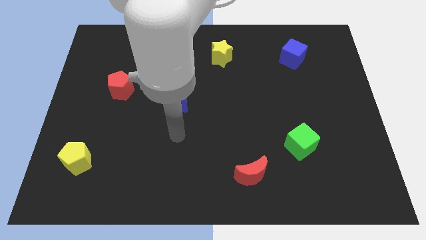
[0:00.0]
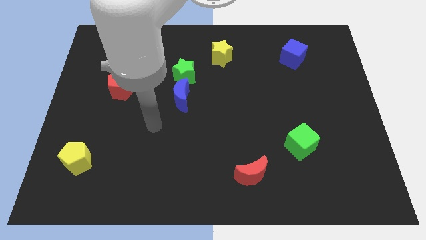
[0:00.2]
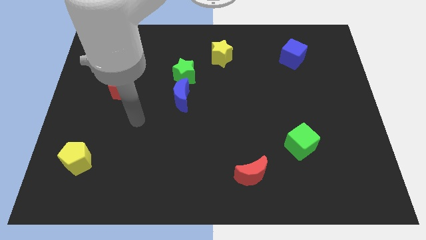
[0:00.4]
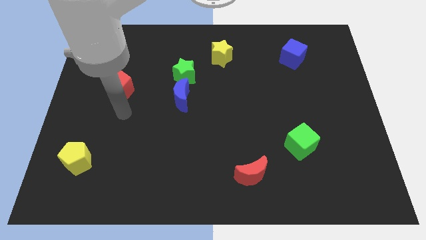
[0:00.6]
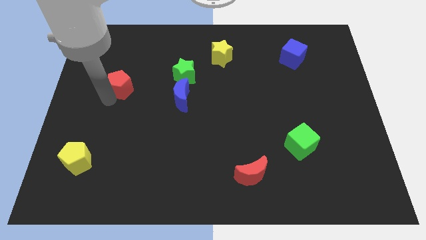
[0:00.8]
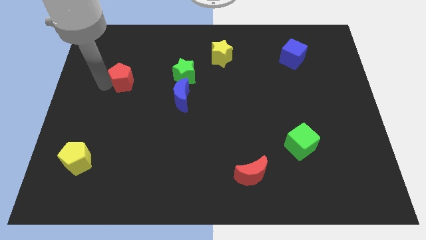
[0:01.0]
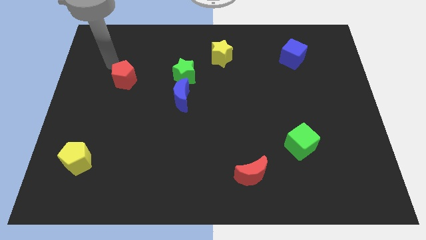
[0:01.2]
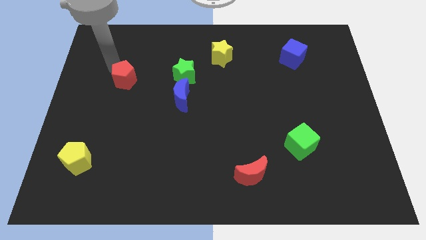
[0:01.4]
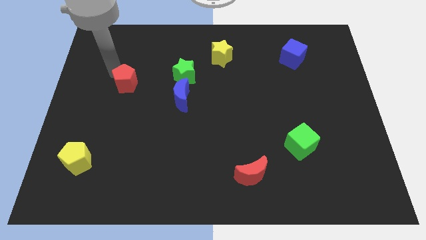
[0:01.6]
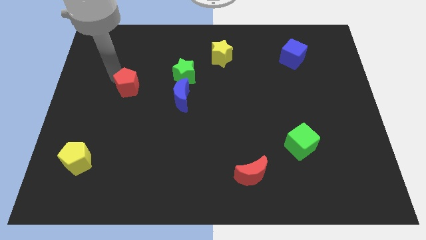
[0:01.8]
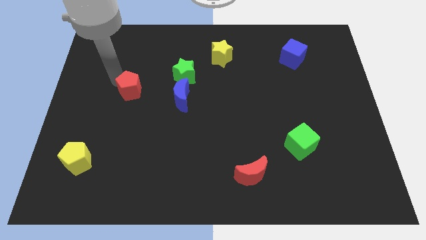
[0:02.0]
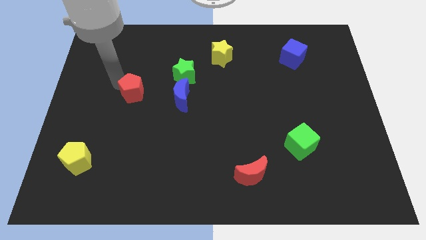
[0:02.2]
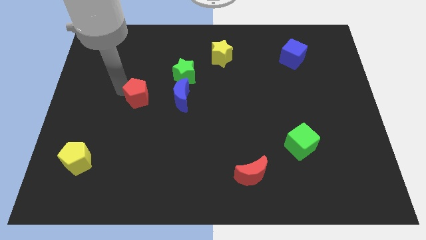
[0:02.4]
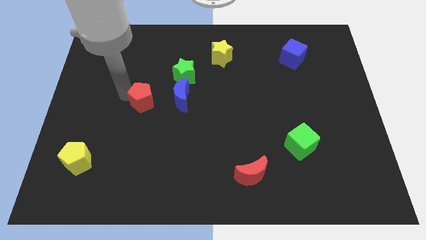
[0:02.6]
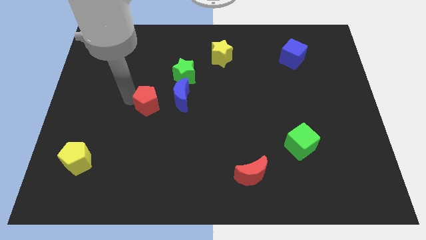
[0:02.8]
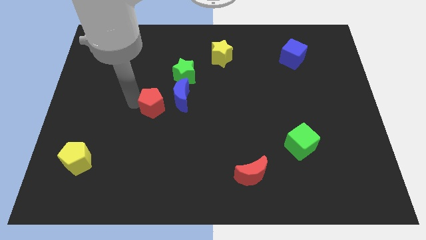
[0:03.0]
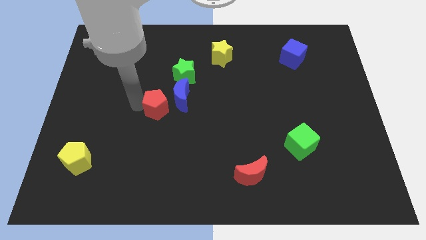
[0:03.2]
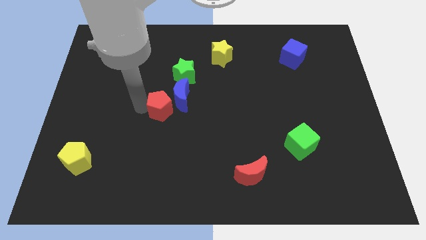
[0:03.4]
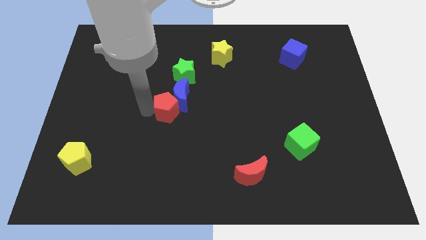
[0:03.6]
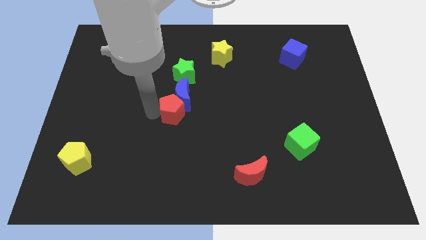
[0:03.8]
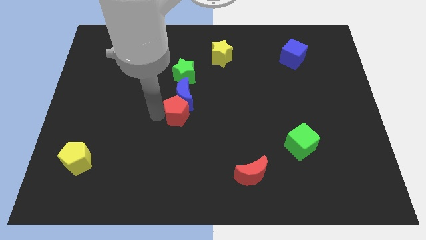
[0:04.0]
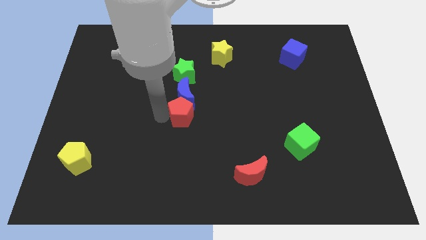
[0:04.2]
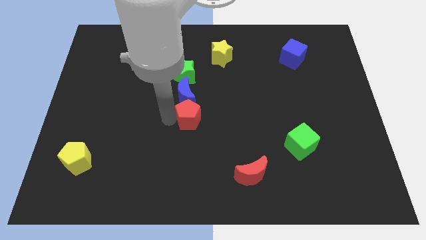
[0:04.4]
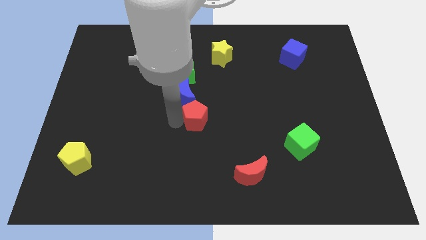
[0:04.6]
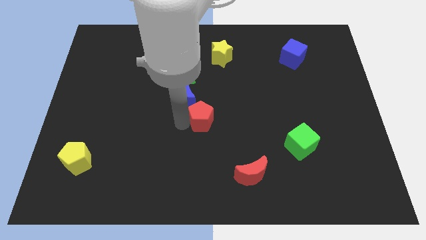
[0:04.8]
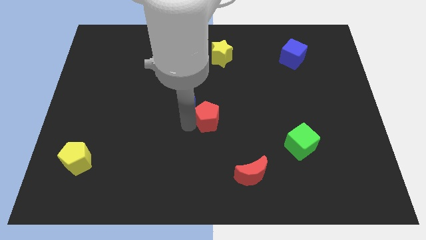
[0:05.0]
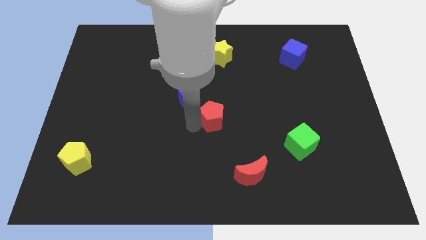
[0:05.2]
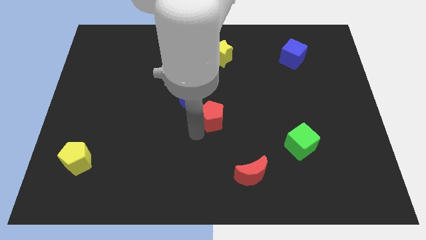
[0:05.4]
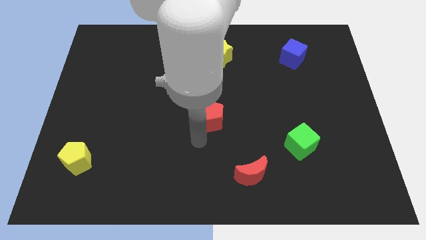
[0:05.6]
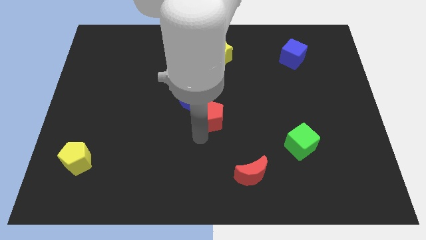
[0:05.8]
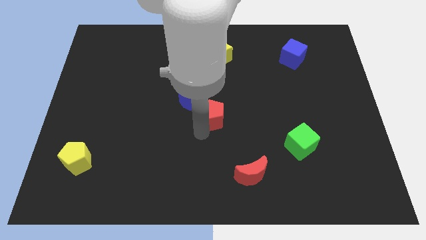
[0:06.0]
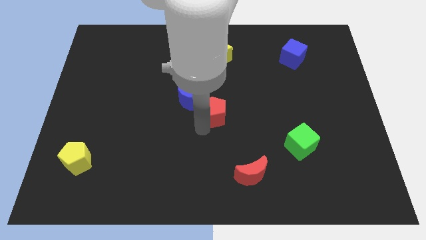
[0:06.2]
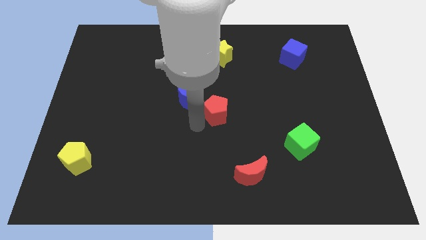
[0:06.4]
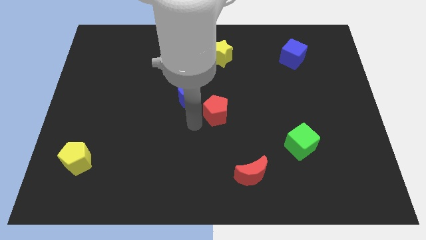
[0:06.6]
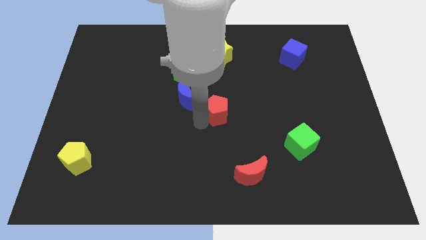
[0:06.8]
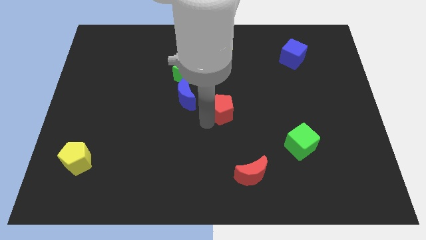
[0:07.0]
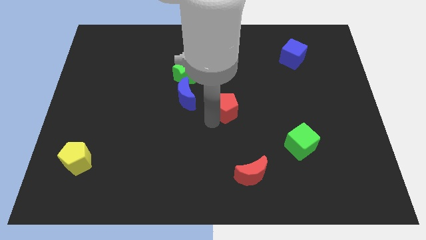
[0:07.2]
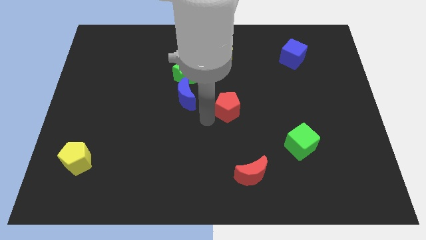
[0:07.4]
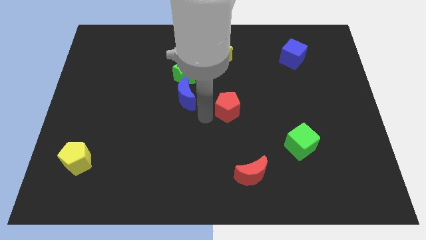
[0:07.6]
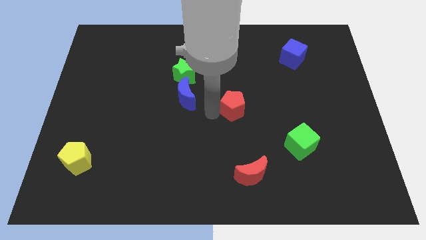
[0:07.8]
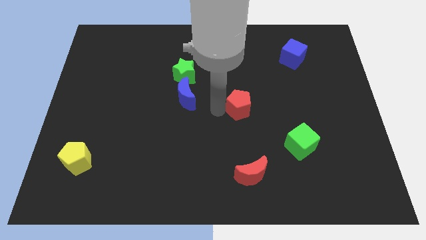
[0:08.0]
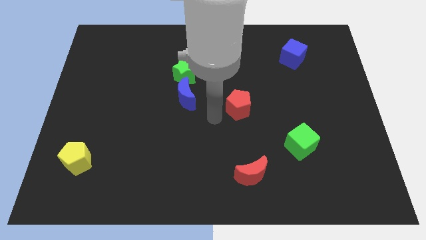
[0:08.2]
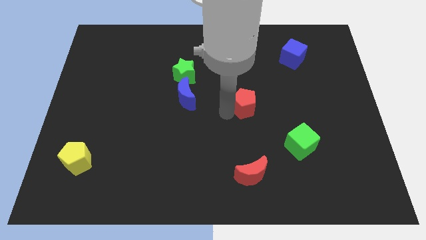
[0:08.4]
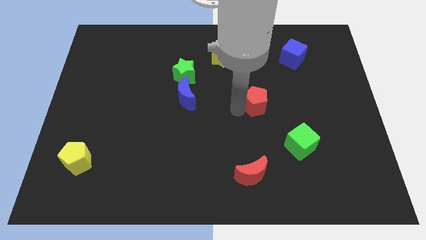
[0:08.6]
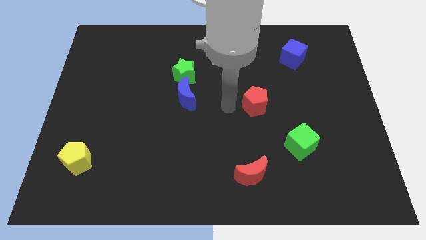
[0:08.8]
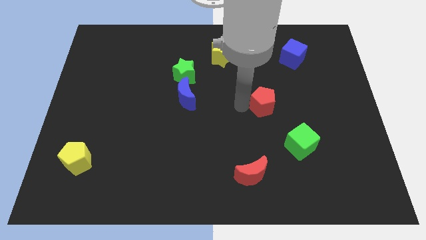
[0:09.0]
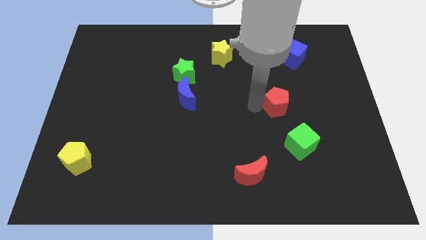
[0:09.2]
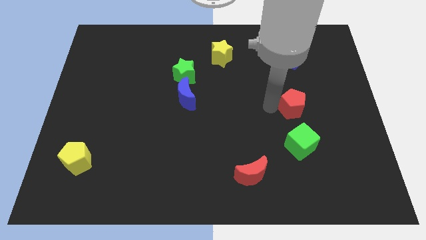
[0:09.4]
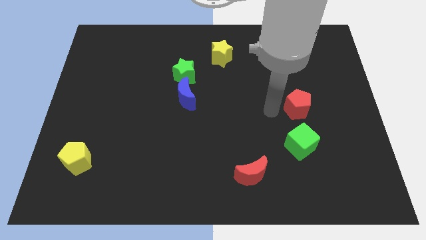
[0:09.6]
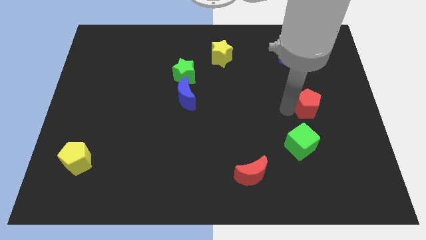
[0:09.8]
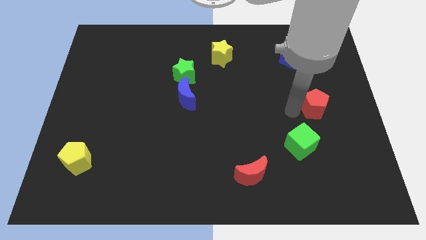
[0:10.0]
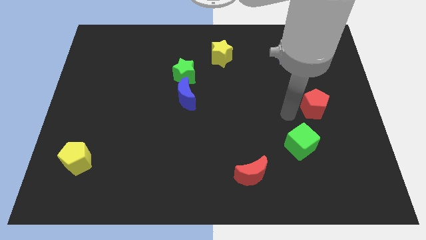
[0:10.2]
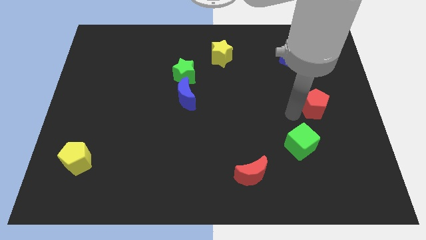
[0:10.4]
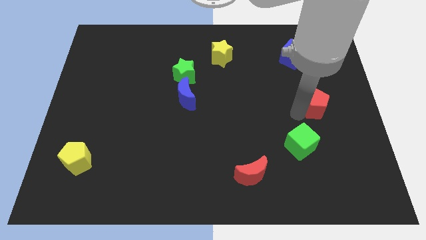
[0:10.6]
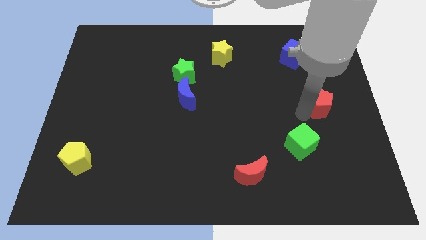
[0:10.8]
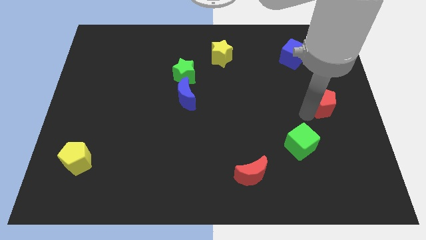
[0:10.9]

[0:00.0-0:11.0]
slide the red pentagon to the right side

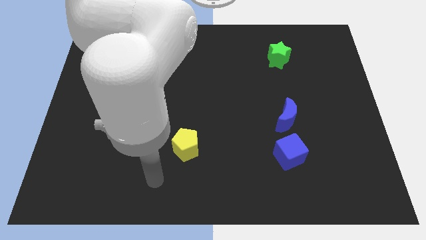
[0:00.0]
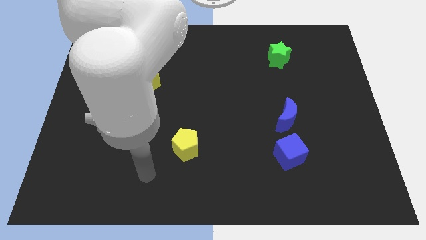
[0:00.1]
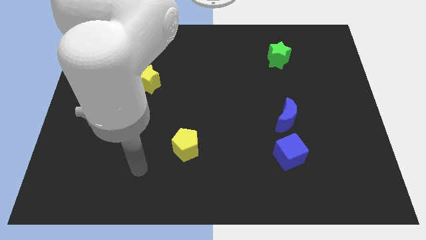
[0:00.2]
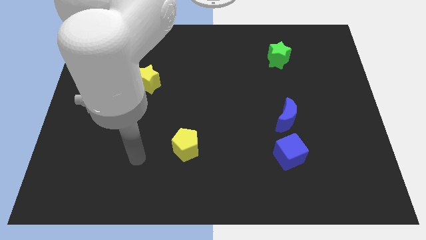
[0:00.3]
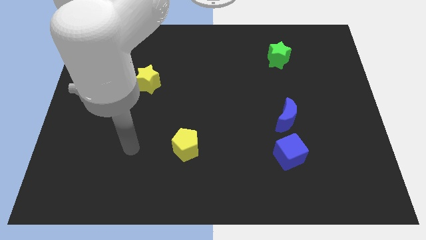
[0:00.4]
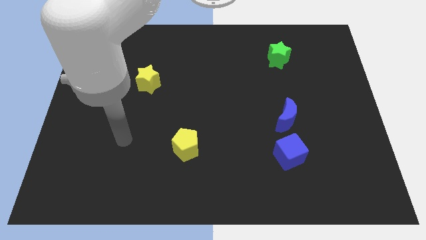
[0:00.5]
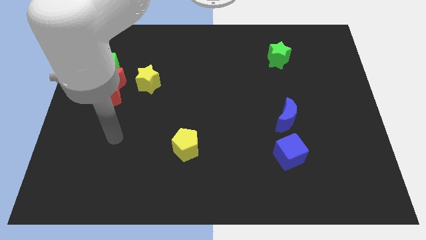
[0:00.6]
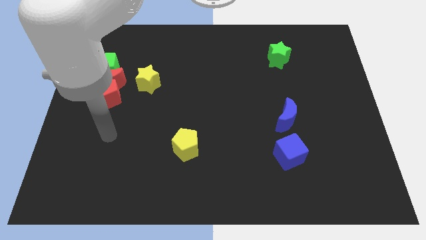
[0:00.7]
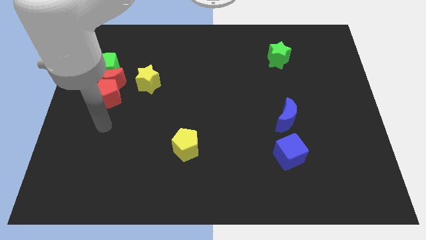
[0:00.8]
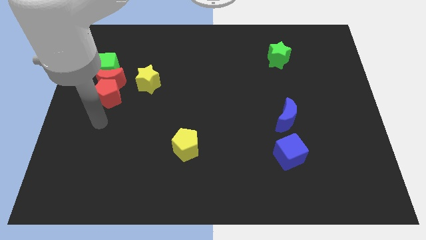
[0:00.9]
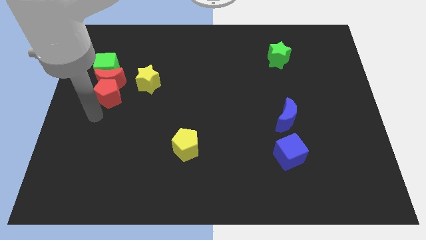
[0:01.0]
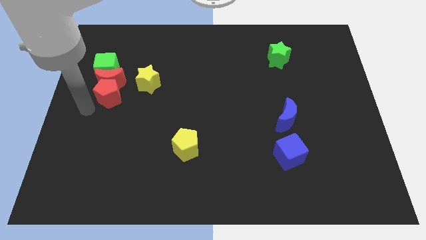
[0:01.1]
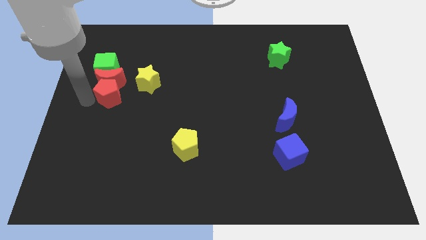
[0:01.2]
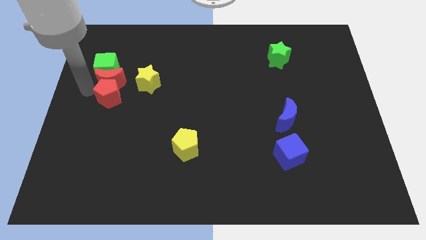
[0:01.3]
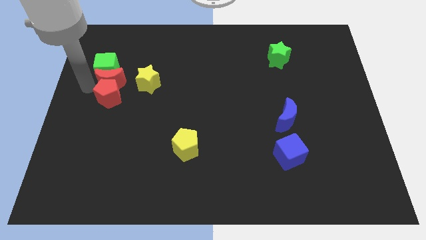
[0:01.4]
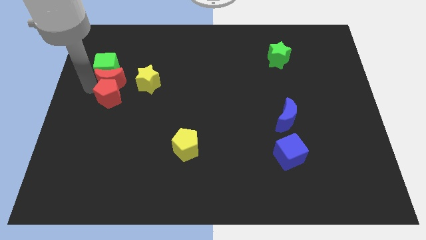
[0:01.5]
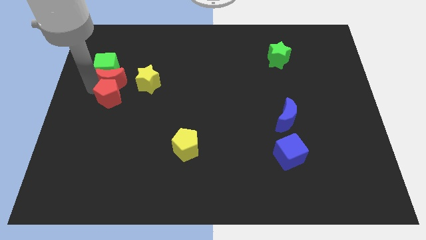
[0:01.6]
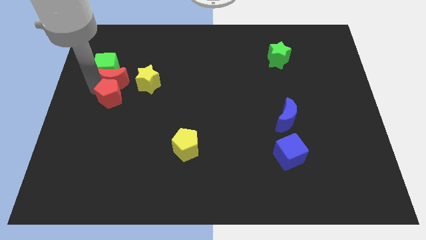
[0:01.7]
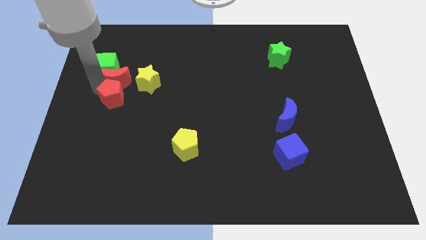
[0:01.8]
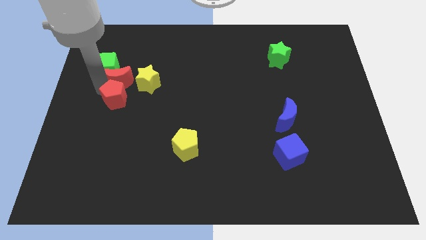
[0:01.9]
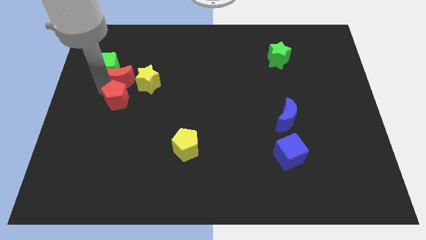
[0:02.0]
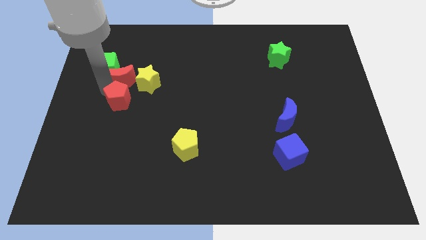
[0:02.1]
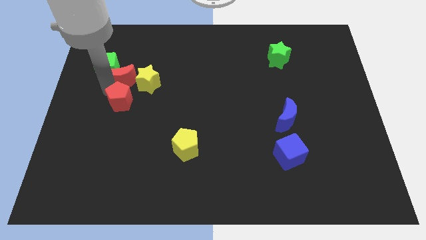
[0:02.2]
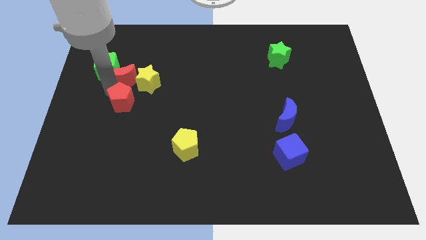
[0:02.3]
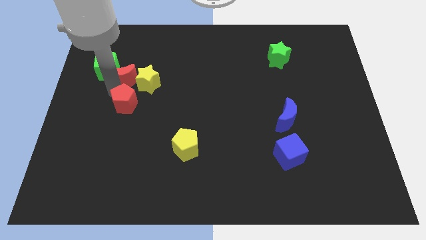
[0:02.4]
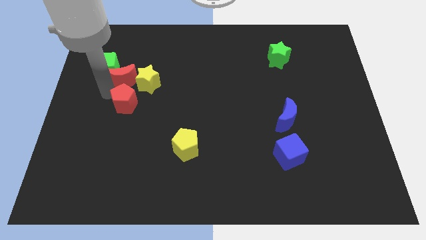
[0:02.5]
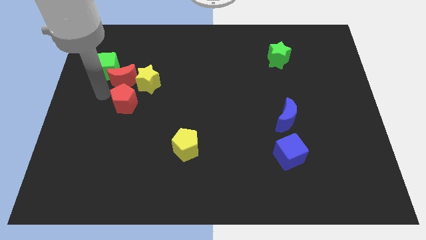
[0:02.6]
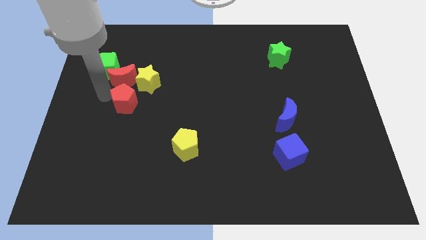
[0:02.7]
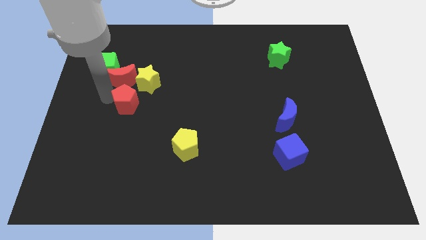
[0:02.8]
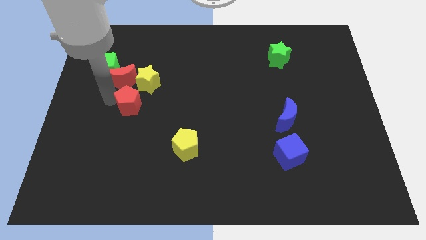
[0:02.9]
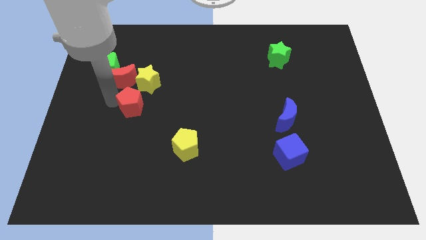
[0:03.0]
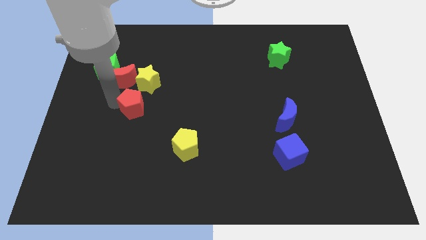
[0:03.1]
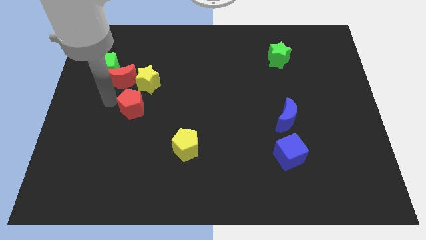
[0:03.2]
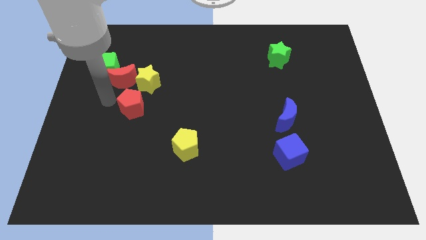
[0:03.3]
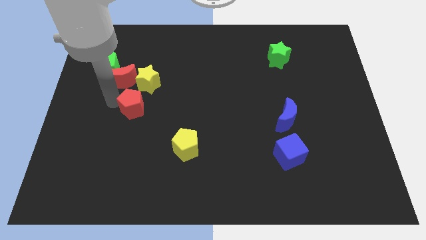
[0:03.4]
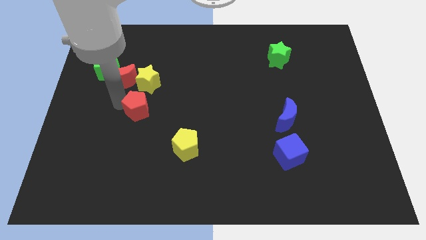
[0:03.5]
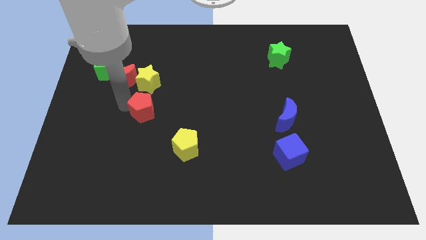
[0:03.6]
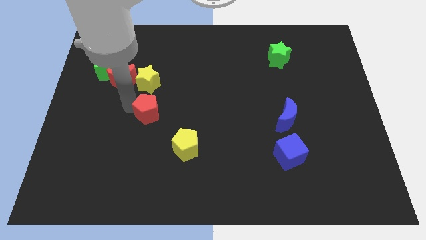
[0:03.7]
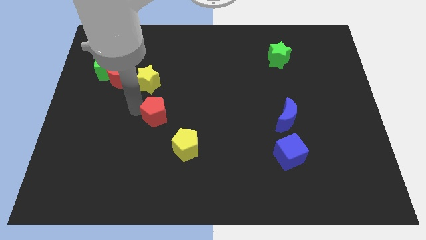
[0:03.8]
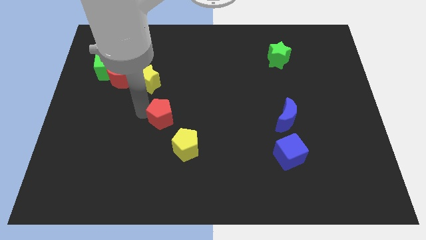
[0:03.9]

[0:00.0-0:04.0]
push the red pentagon to the middle of the board
